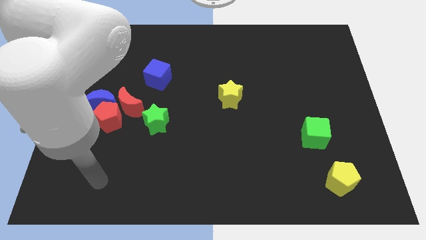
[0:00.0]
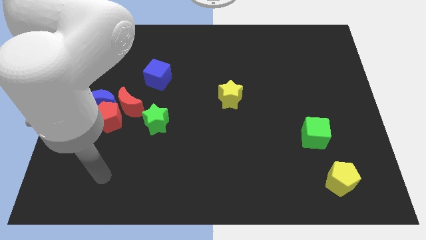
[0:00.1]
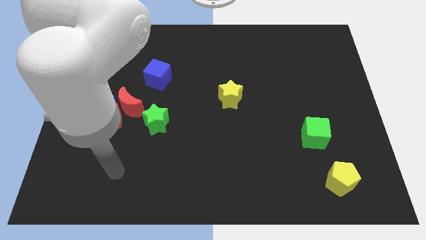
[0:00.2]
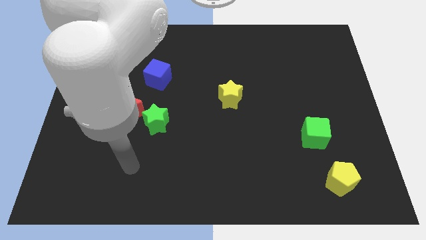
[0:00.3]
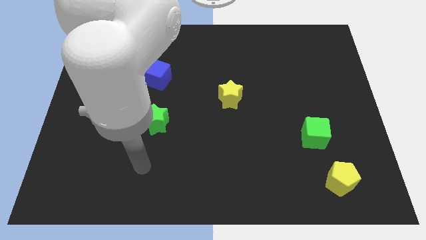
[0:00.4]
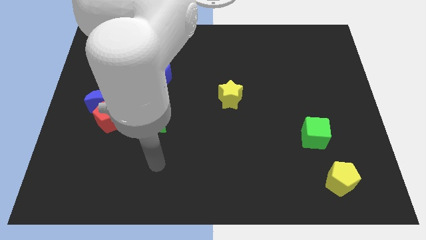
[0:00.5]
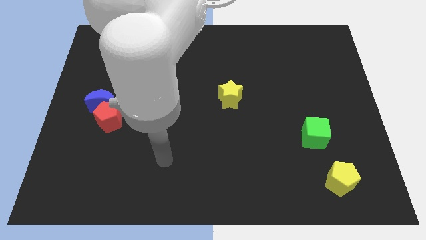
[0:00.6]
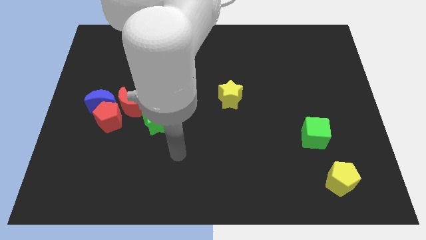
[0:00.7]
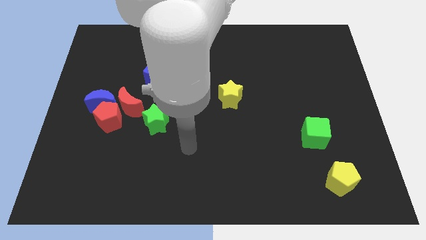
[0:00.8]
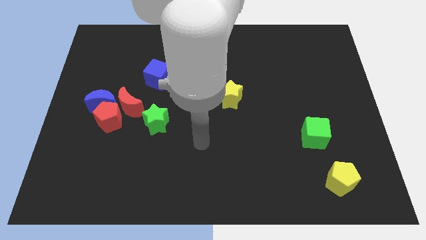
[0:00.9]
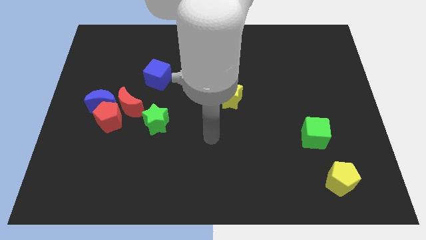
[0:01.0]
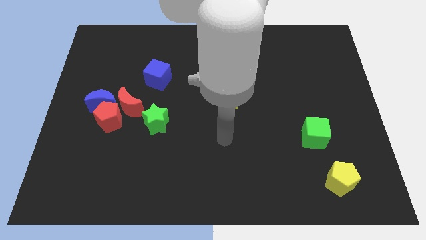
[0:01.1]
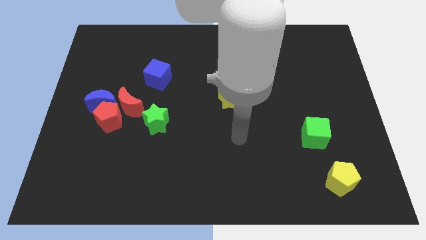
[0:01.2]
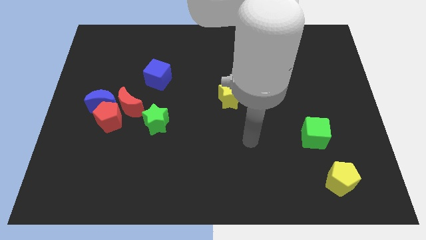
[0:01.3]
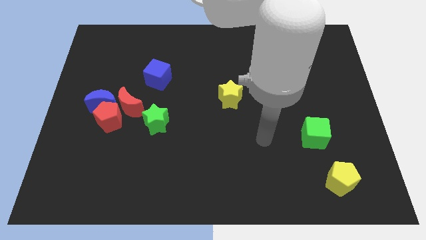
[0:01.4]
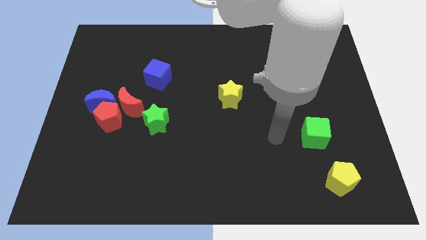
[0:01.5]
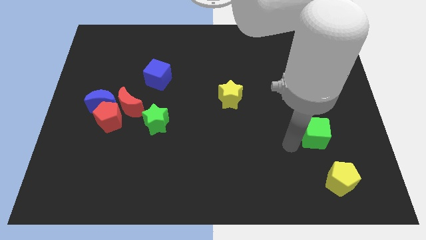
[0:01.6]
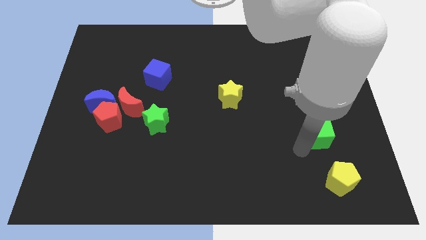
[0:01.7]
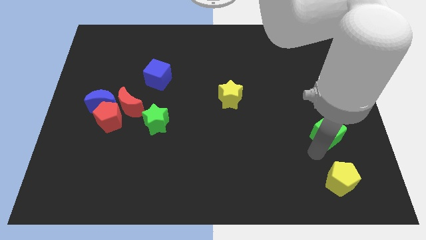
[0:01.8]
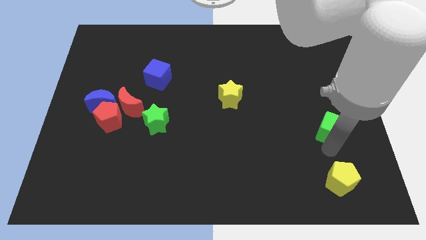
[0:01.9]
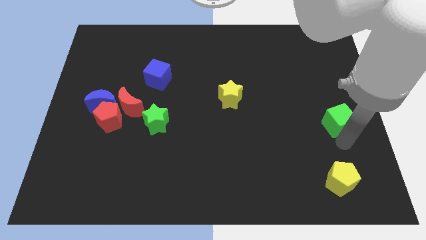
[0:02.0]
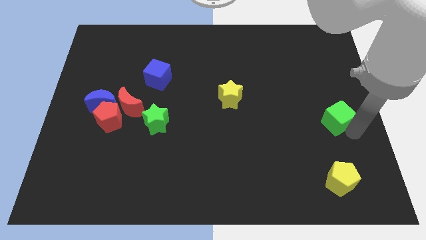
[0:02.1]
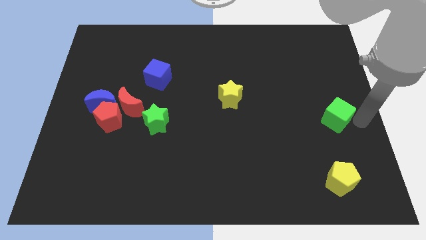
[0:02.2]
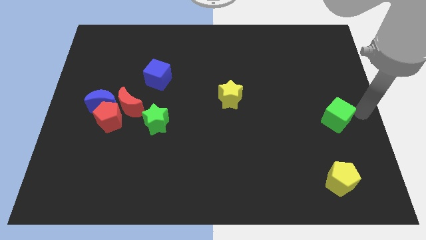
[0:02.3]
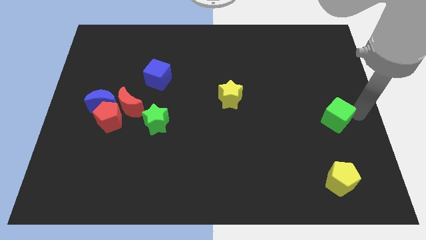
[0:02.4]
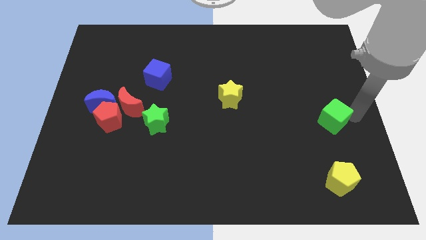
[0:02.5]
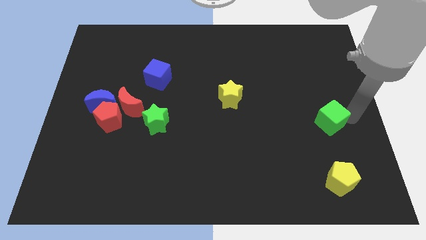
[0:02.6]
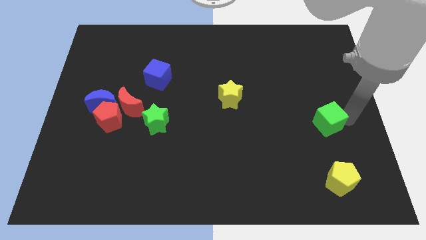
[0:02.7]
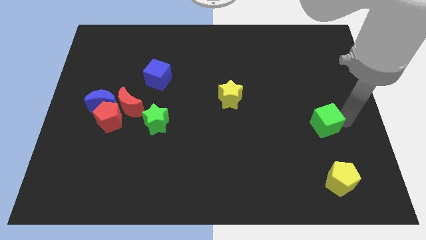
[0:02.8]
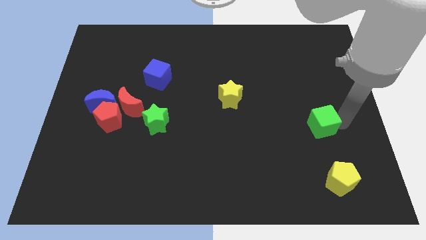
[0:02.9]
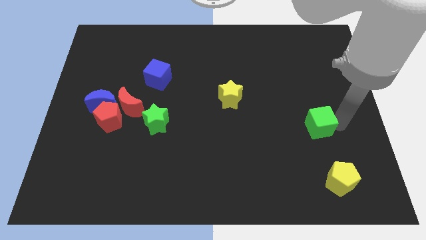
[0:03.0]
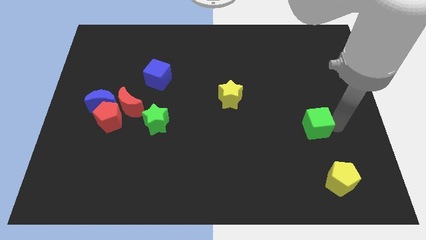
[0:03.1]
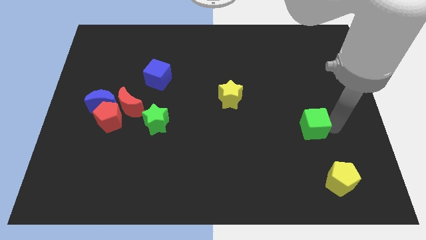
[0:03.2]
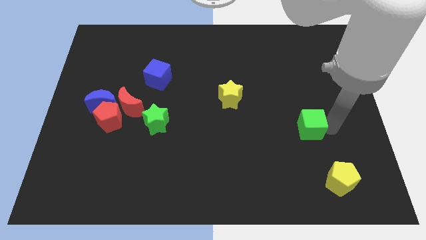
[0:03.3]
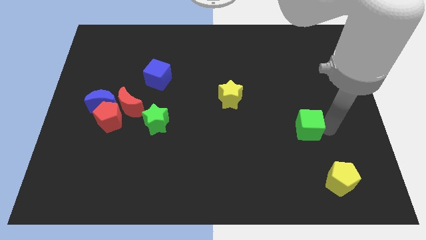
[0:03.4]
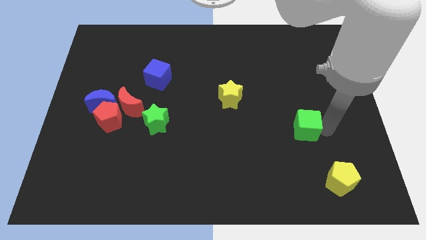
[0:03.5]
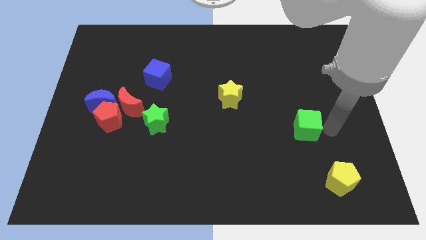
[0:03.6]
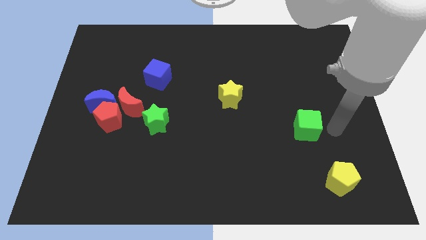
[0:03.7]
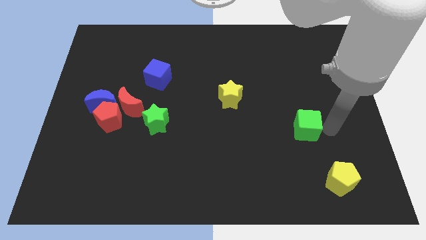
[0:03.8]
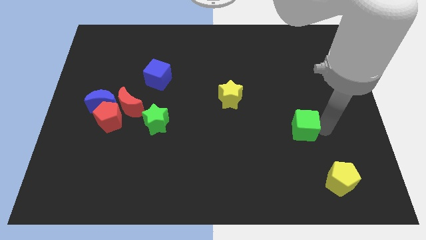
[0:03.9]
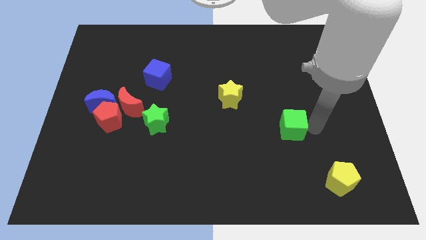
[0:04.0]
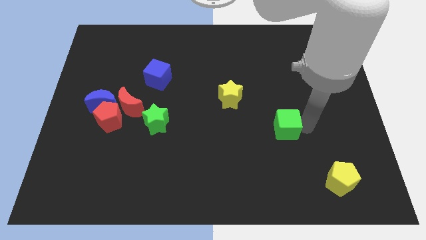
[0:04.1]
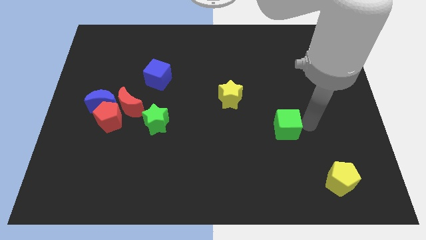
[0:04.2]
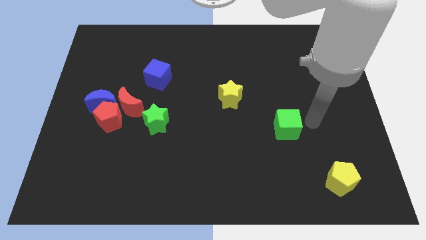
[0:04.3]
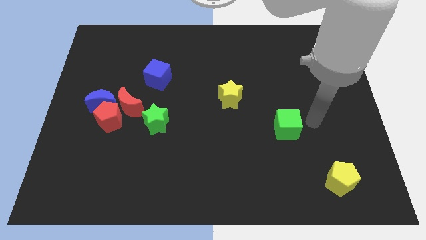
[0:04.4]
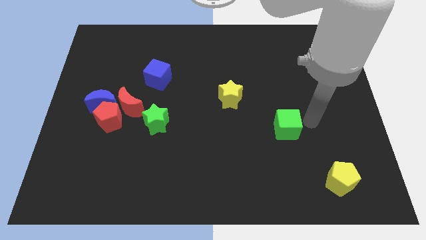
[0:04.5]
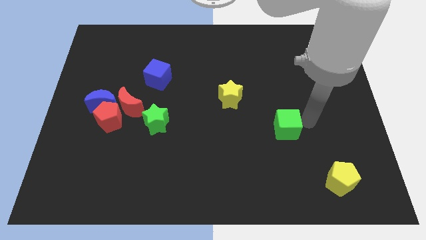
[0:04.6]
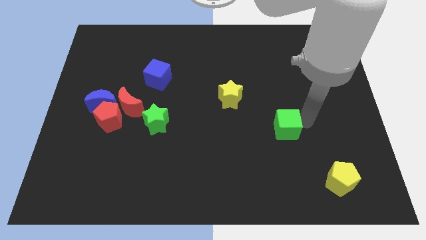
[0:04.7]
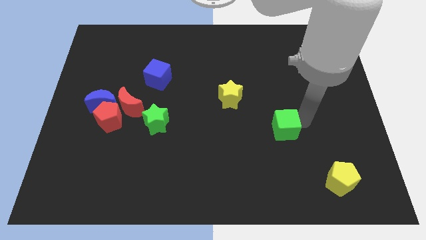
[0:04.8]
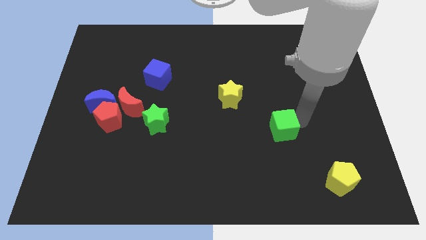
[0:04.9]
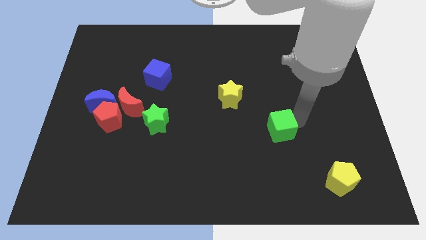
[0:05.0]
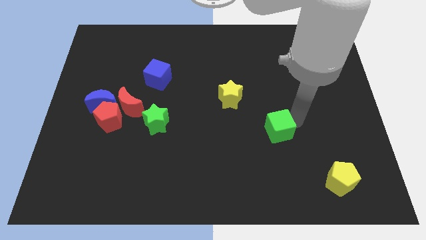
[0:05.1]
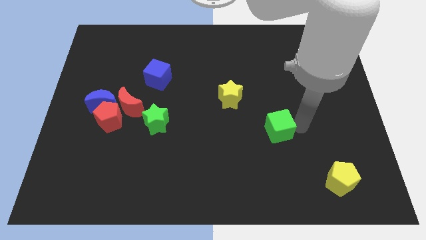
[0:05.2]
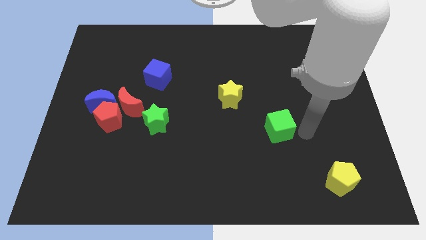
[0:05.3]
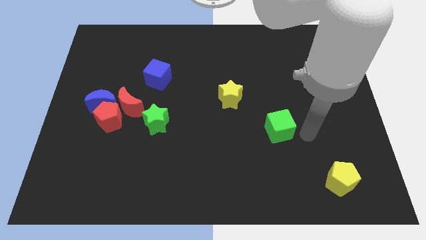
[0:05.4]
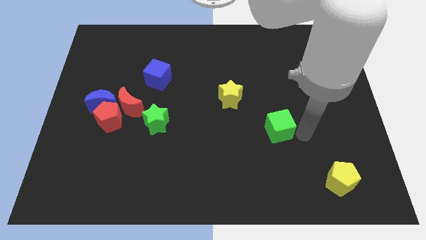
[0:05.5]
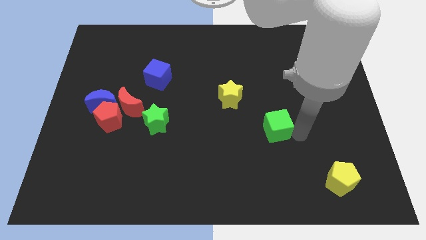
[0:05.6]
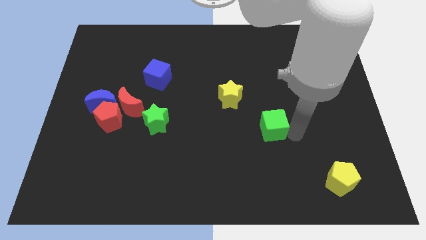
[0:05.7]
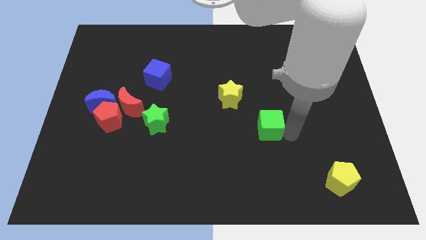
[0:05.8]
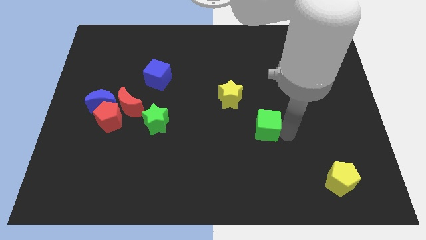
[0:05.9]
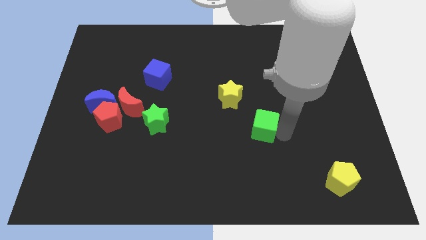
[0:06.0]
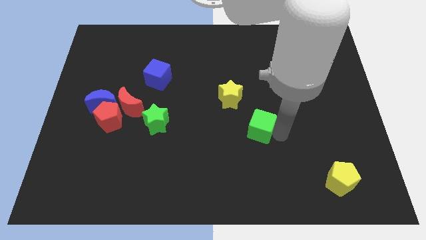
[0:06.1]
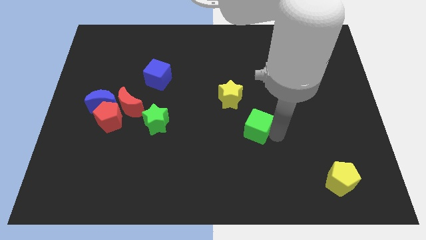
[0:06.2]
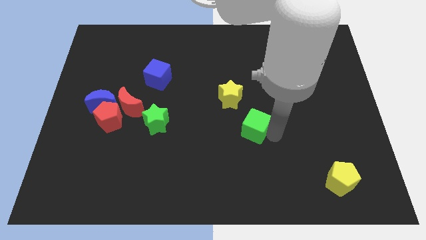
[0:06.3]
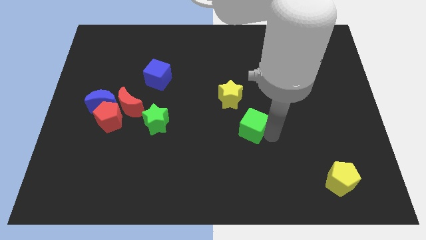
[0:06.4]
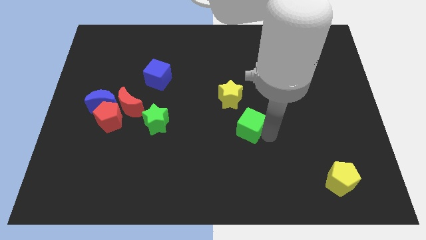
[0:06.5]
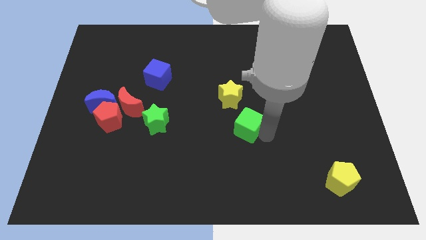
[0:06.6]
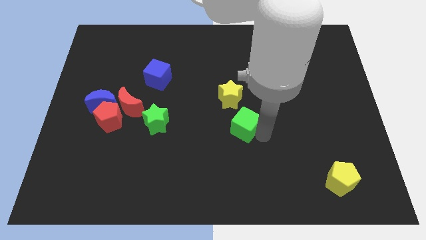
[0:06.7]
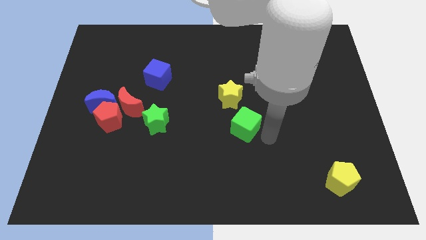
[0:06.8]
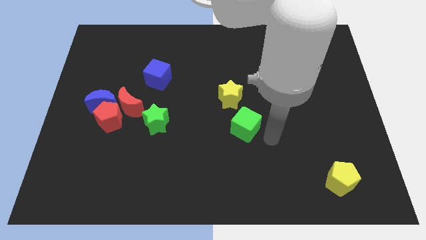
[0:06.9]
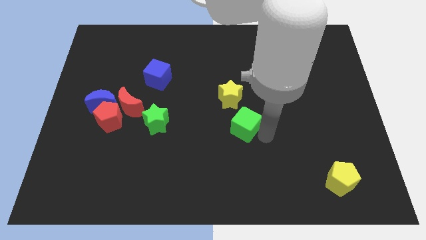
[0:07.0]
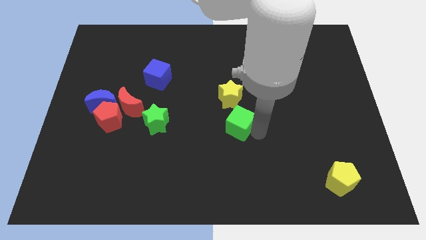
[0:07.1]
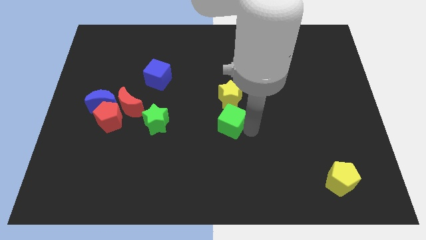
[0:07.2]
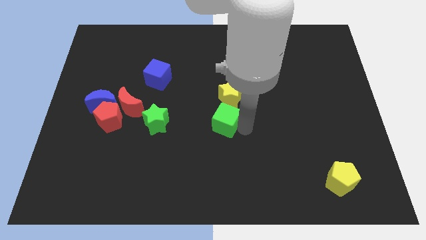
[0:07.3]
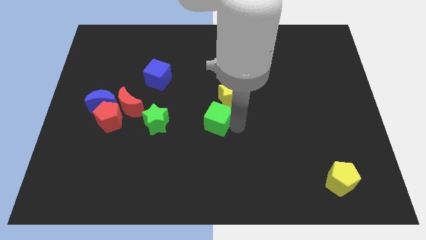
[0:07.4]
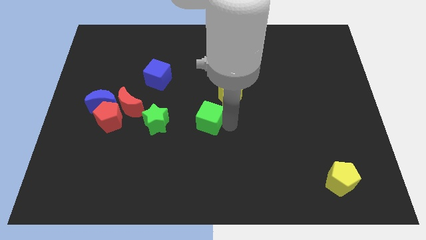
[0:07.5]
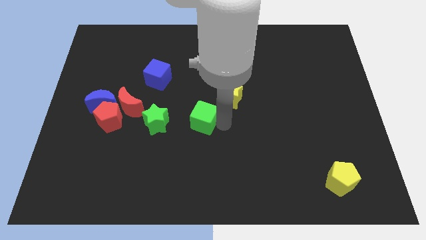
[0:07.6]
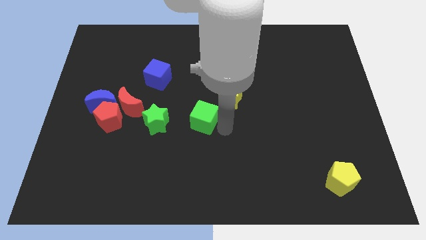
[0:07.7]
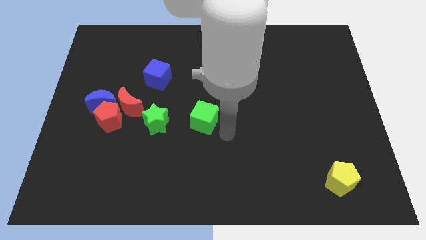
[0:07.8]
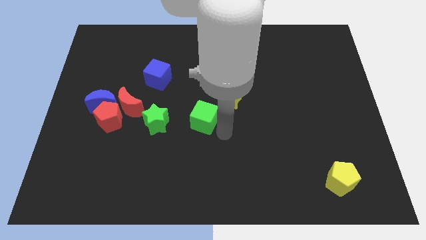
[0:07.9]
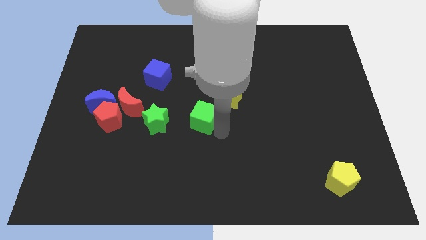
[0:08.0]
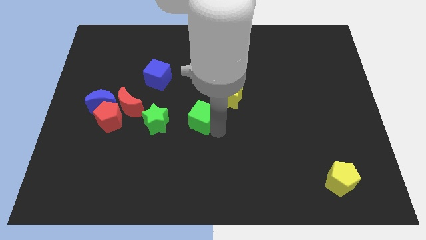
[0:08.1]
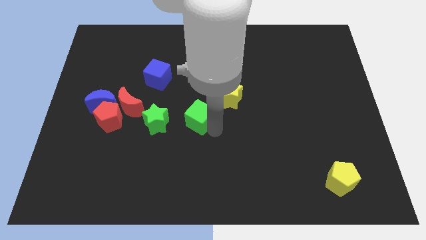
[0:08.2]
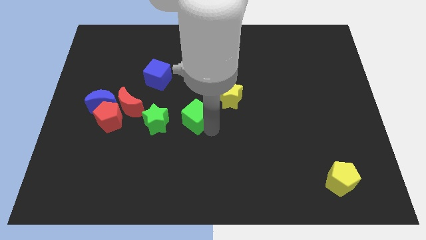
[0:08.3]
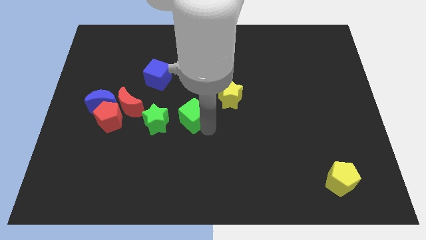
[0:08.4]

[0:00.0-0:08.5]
slide the green cube to the top right of the green star
